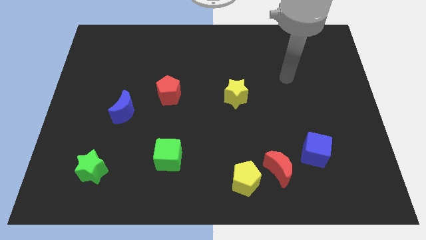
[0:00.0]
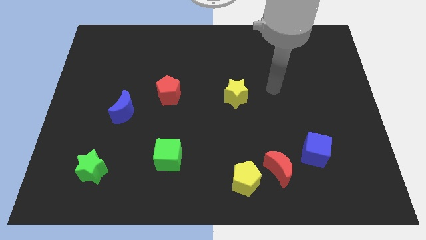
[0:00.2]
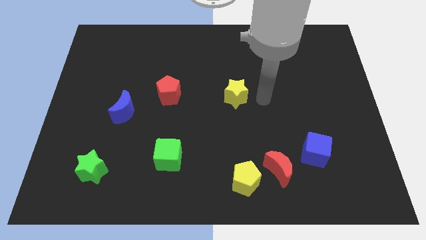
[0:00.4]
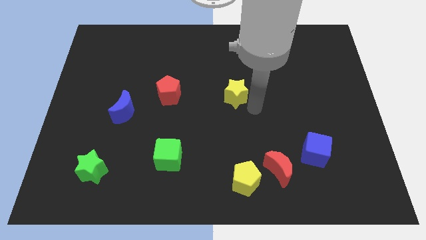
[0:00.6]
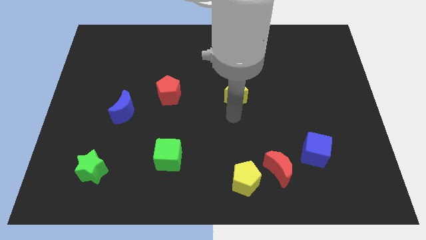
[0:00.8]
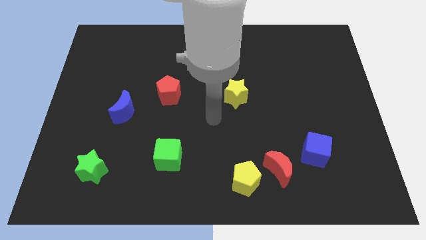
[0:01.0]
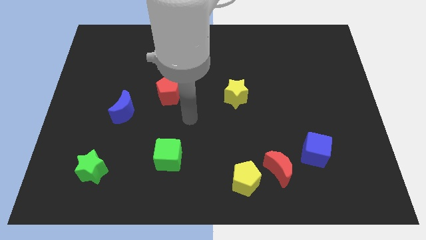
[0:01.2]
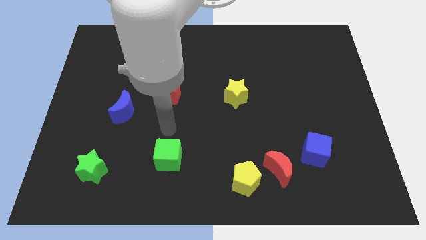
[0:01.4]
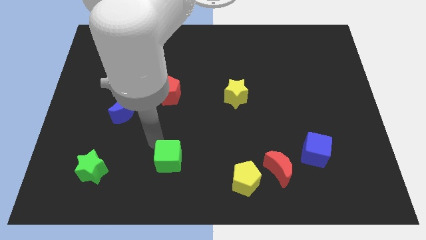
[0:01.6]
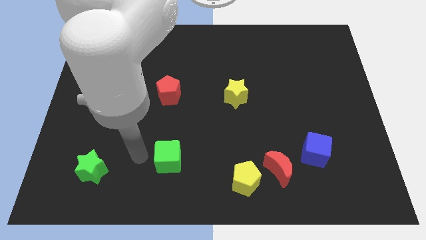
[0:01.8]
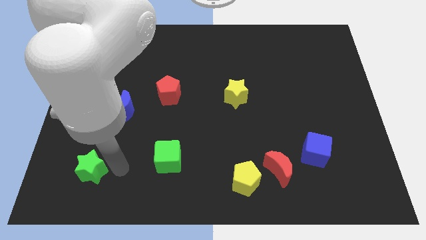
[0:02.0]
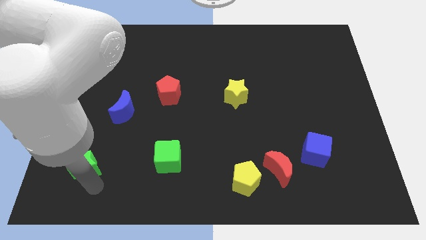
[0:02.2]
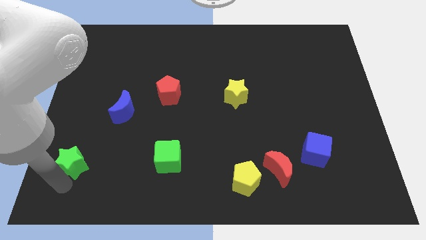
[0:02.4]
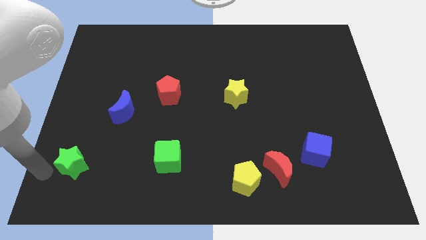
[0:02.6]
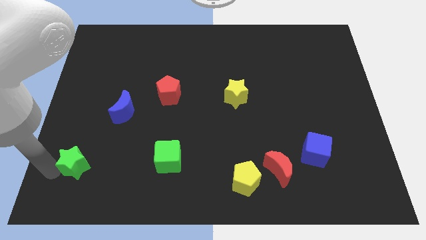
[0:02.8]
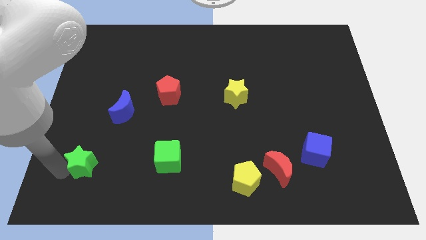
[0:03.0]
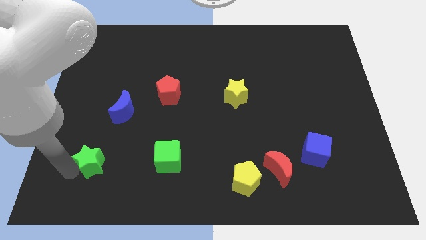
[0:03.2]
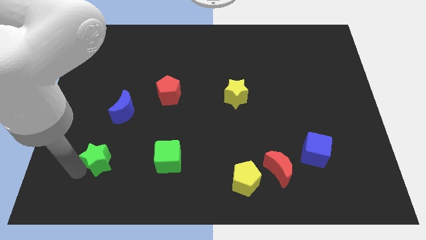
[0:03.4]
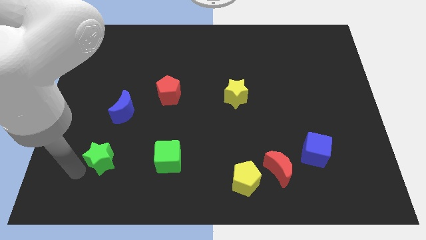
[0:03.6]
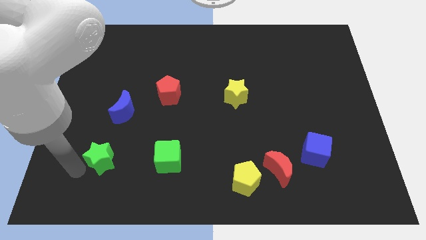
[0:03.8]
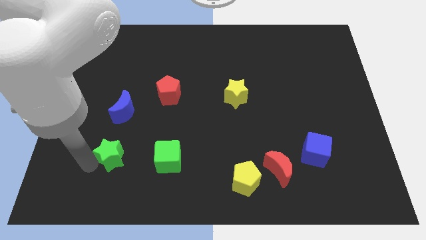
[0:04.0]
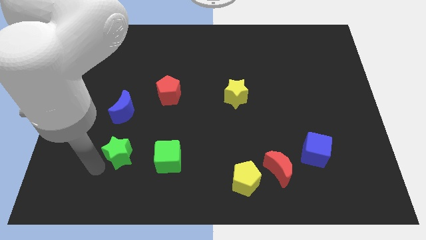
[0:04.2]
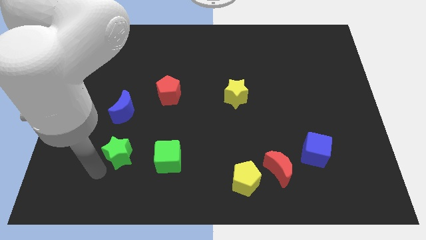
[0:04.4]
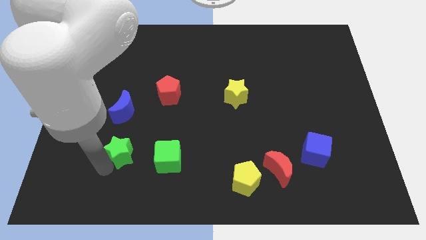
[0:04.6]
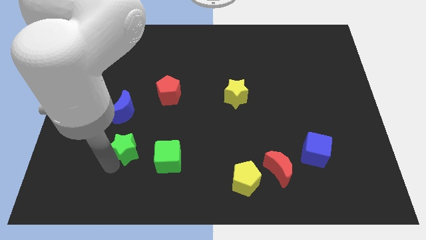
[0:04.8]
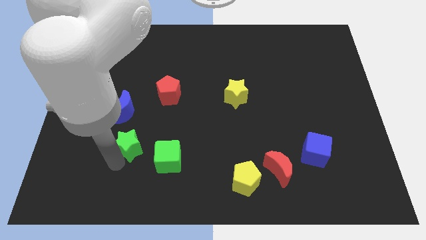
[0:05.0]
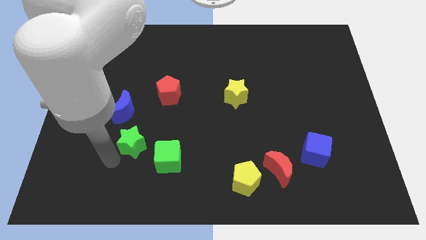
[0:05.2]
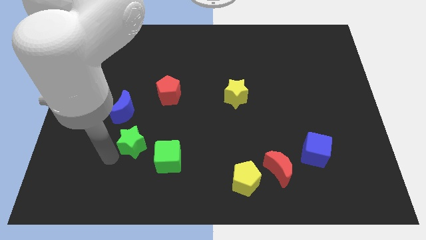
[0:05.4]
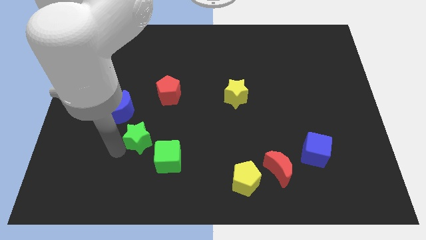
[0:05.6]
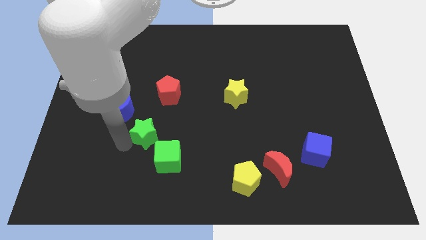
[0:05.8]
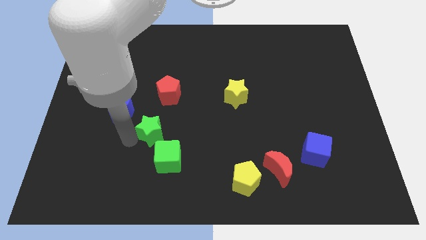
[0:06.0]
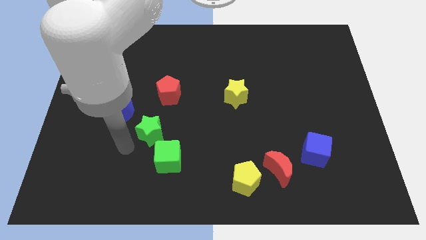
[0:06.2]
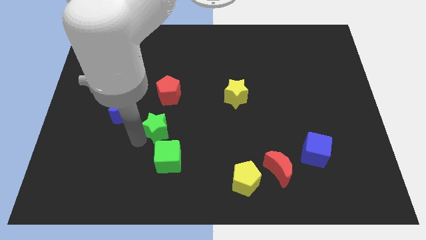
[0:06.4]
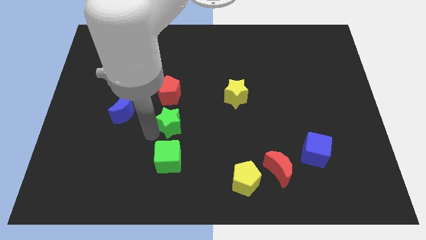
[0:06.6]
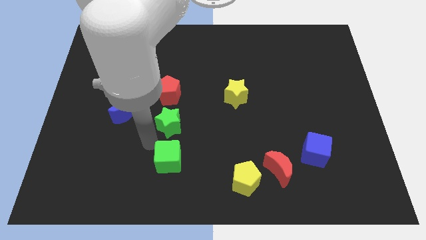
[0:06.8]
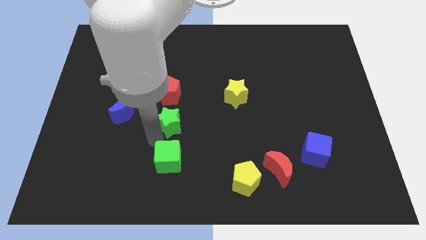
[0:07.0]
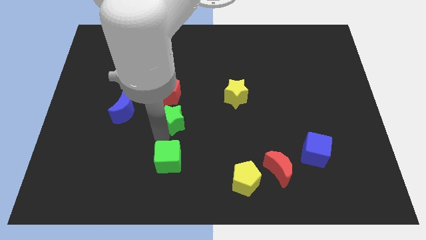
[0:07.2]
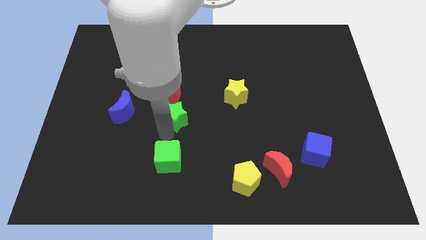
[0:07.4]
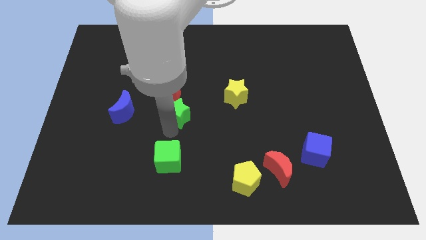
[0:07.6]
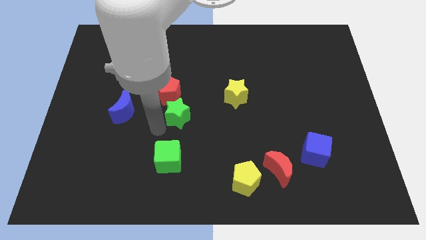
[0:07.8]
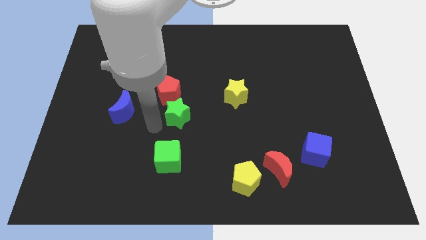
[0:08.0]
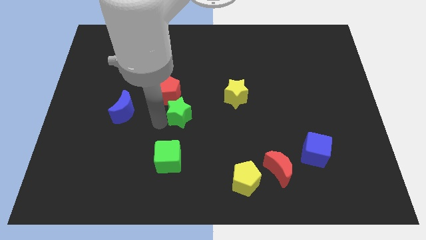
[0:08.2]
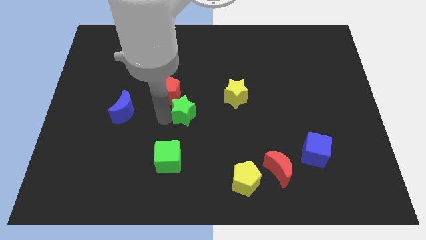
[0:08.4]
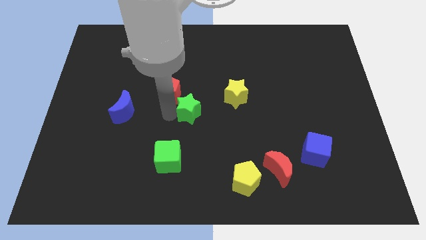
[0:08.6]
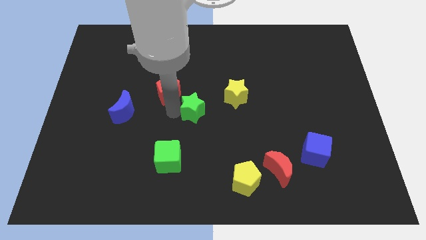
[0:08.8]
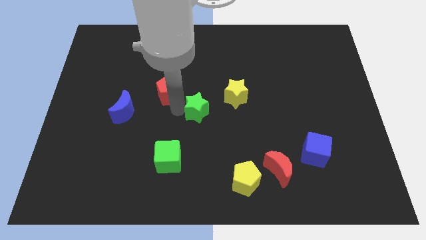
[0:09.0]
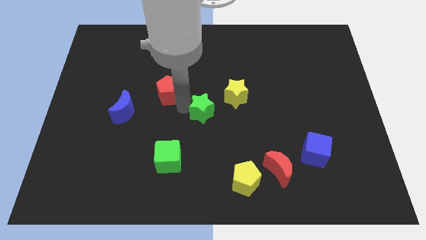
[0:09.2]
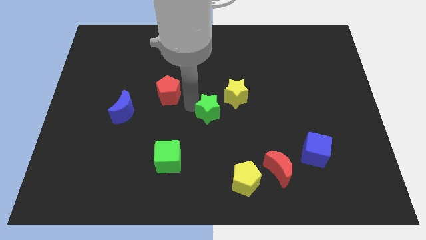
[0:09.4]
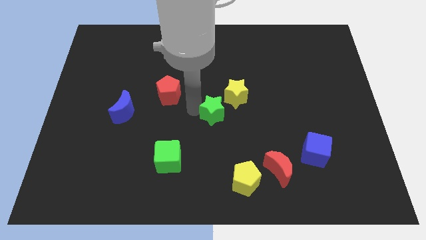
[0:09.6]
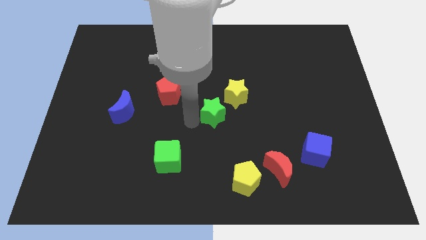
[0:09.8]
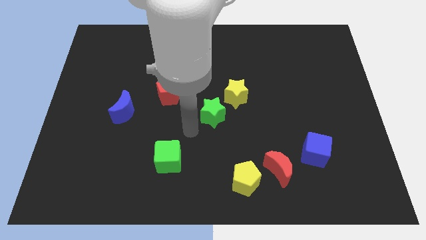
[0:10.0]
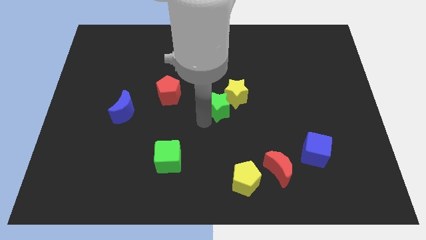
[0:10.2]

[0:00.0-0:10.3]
push the green star close to the yellow star

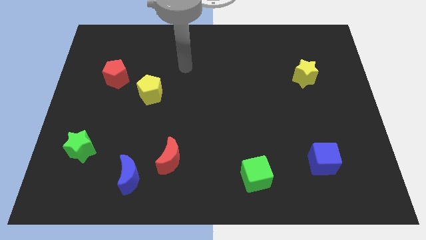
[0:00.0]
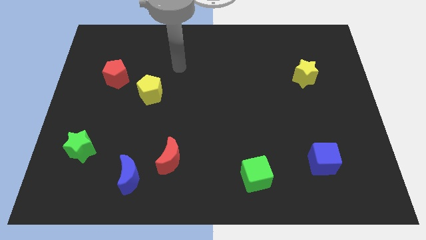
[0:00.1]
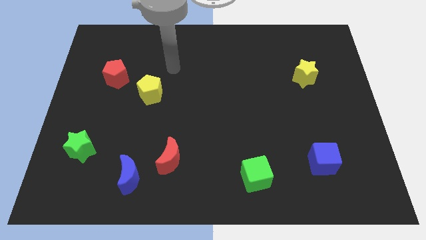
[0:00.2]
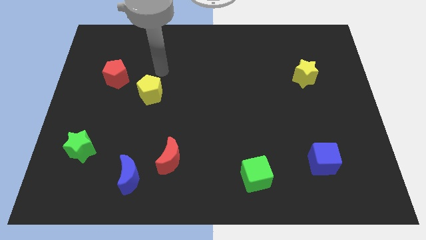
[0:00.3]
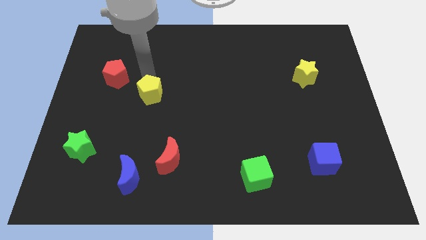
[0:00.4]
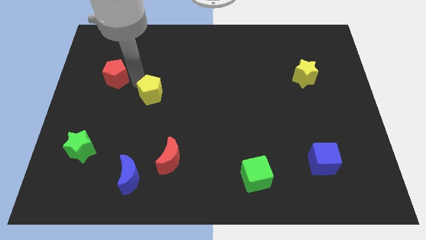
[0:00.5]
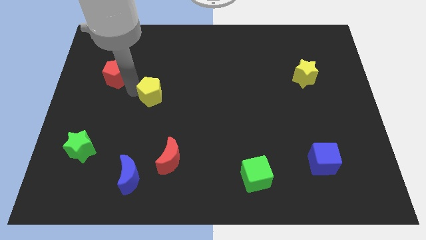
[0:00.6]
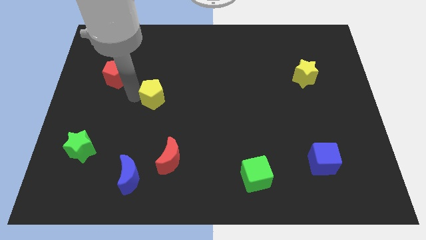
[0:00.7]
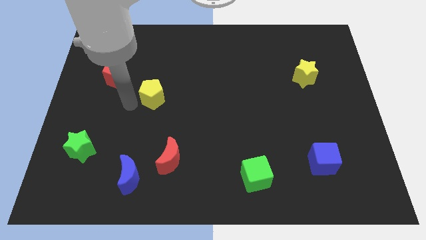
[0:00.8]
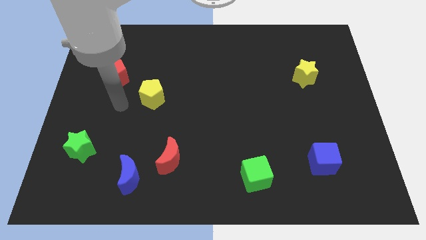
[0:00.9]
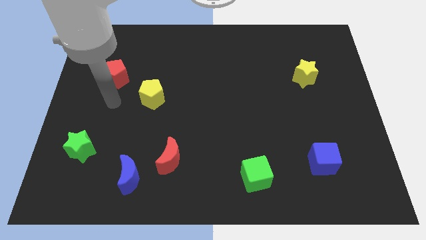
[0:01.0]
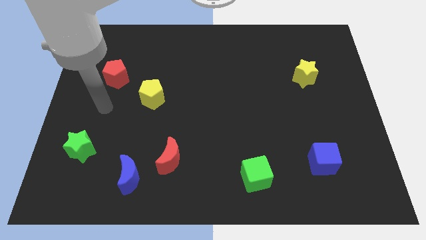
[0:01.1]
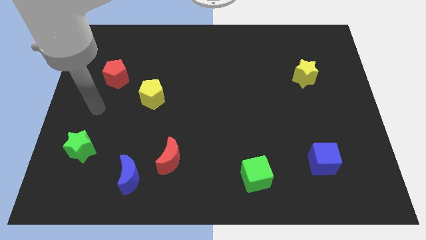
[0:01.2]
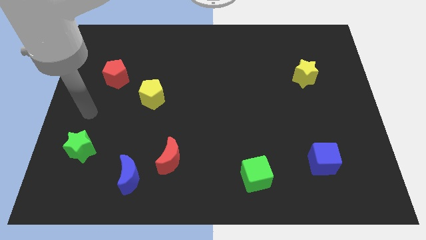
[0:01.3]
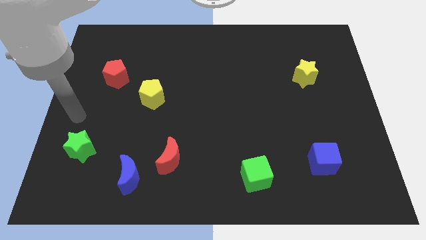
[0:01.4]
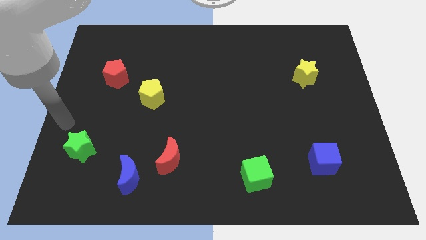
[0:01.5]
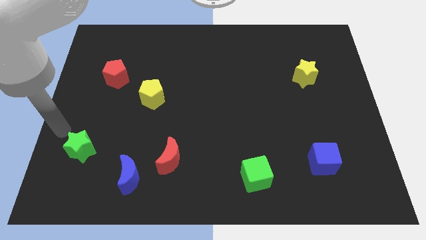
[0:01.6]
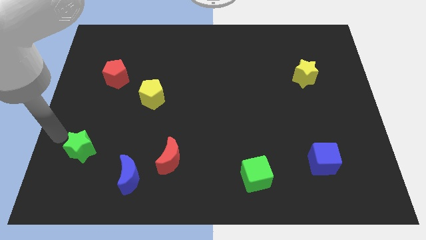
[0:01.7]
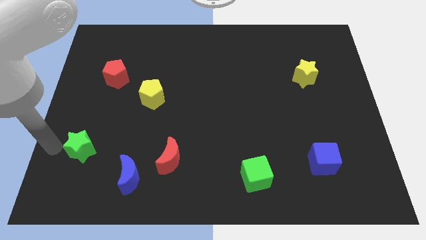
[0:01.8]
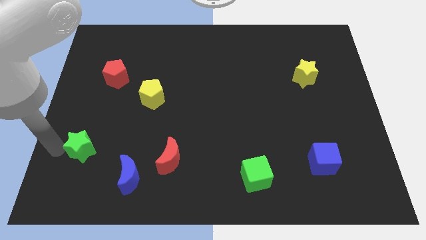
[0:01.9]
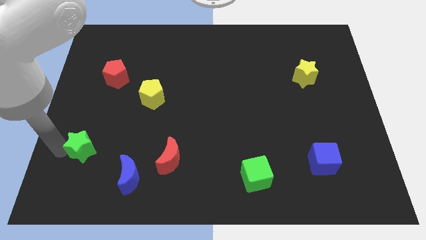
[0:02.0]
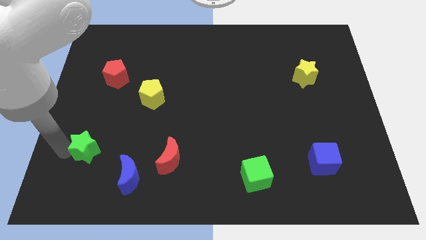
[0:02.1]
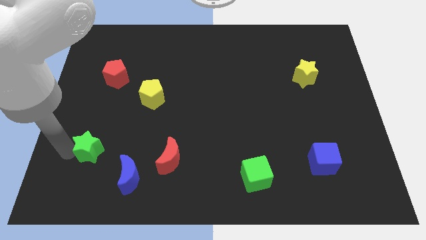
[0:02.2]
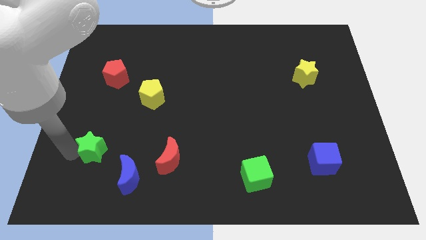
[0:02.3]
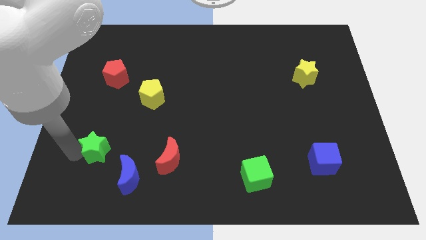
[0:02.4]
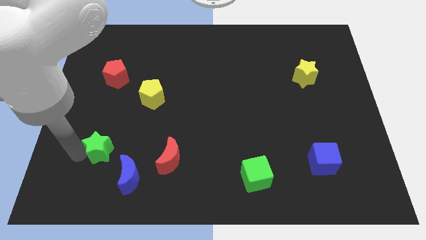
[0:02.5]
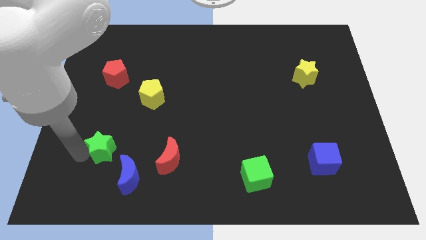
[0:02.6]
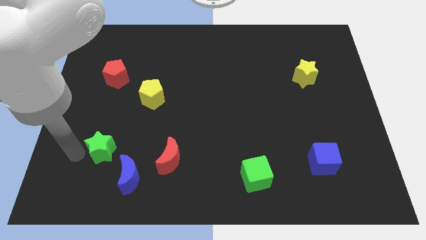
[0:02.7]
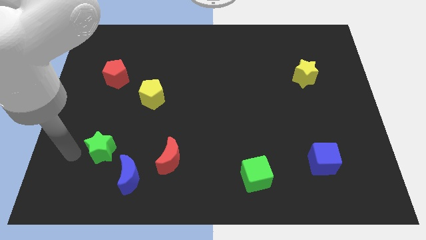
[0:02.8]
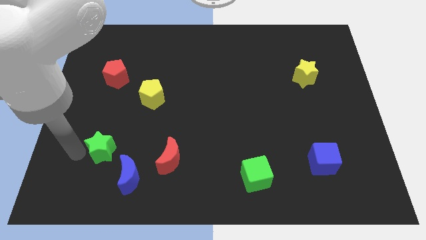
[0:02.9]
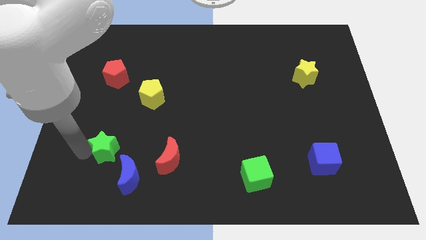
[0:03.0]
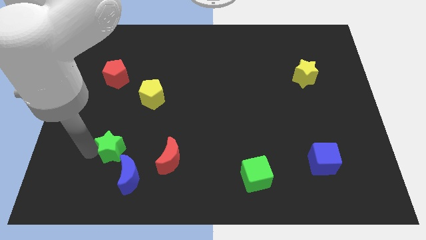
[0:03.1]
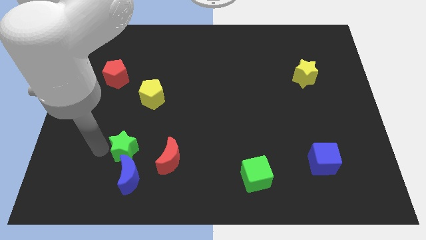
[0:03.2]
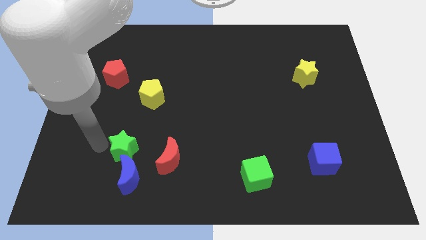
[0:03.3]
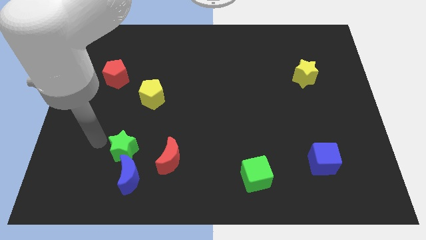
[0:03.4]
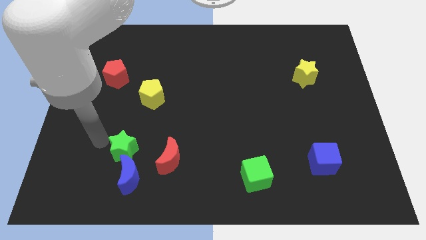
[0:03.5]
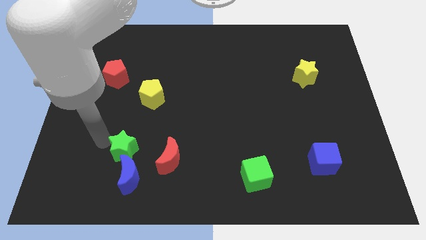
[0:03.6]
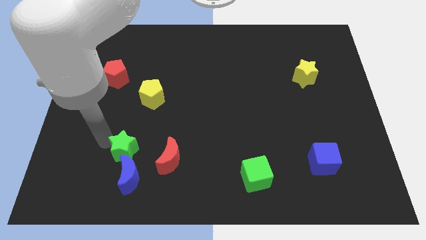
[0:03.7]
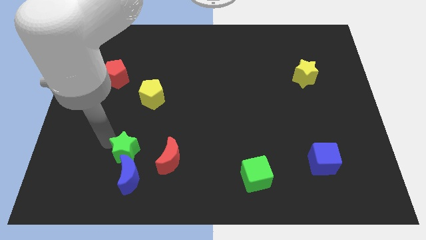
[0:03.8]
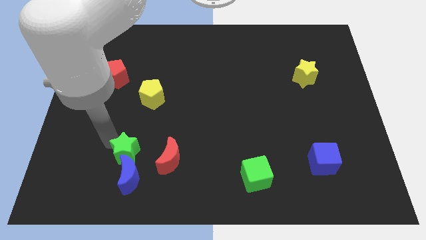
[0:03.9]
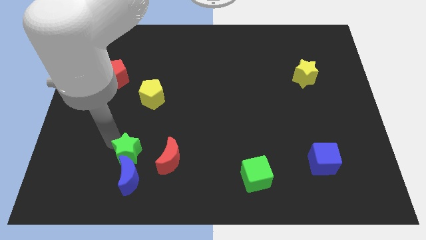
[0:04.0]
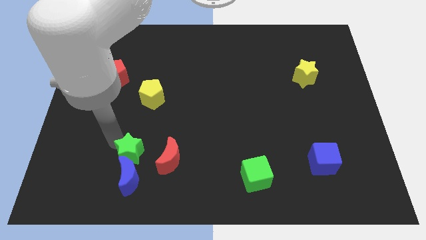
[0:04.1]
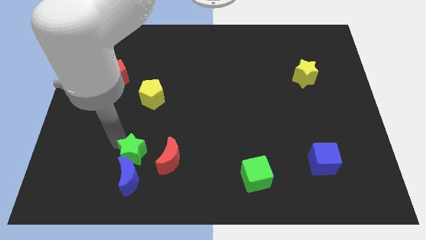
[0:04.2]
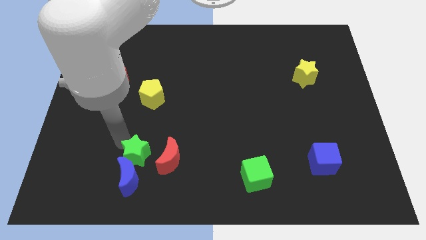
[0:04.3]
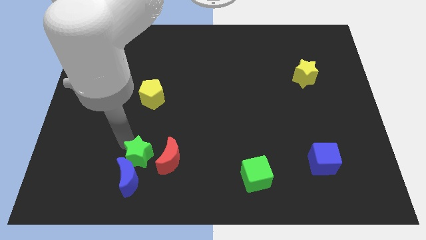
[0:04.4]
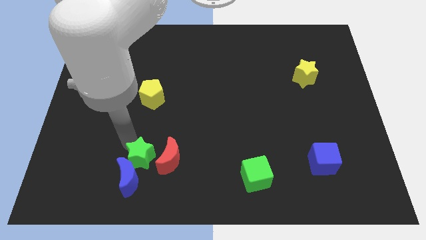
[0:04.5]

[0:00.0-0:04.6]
put the green star towards the red moon
